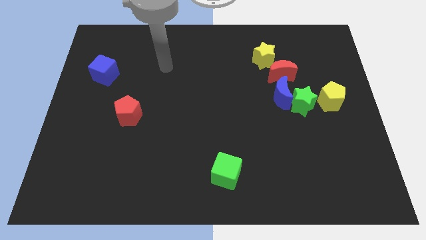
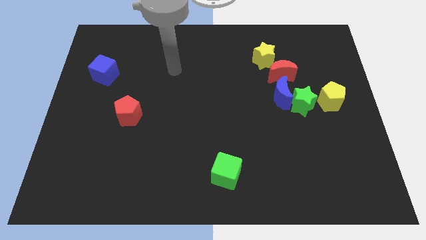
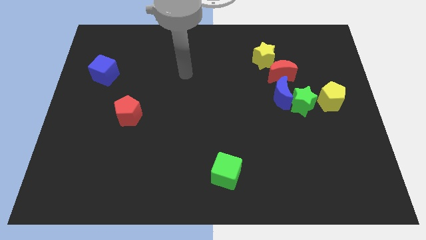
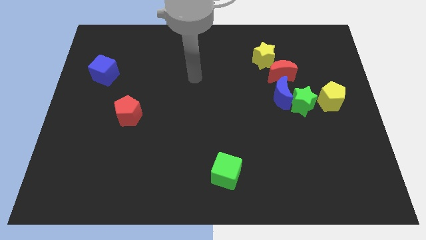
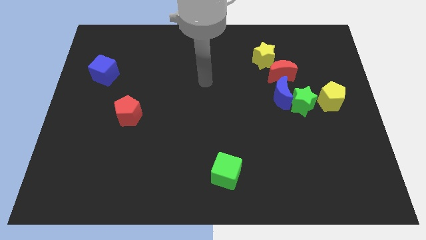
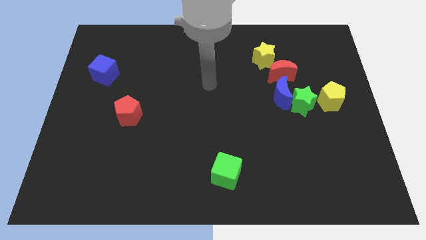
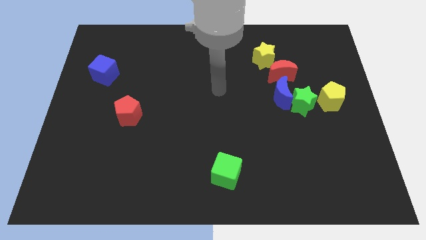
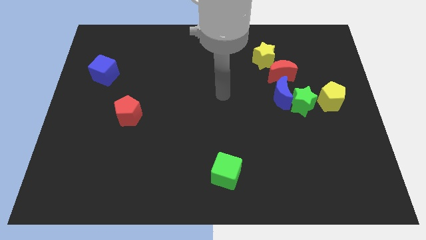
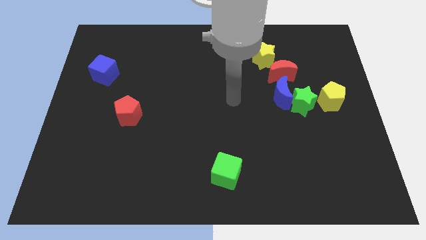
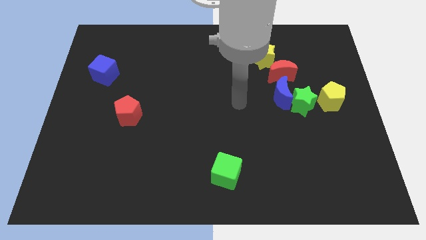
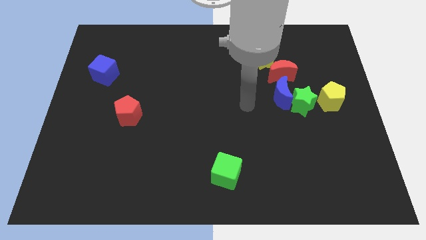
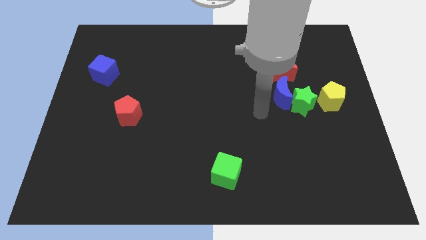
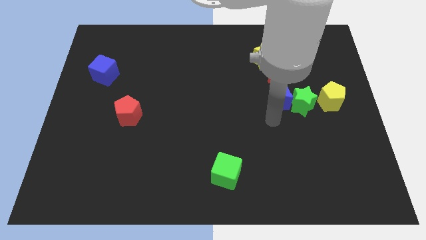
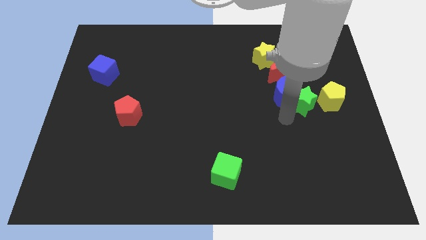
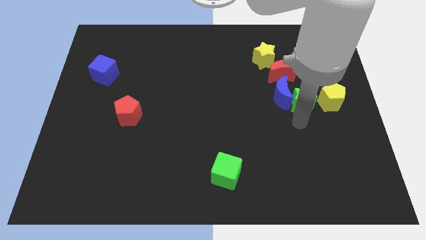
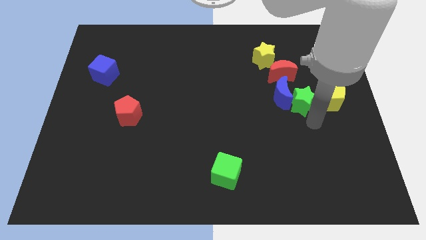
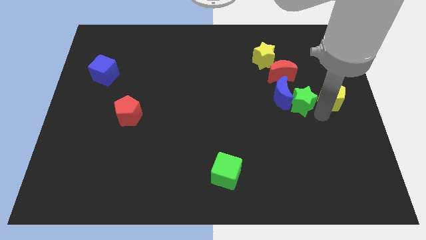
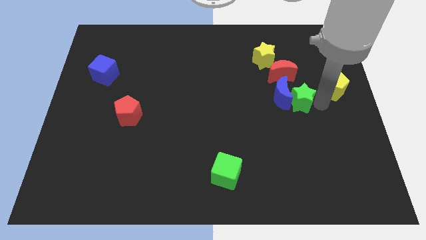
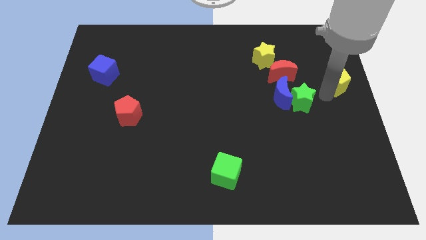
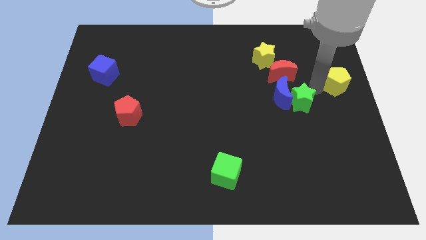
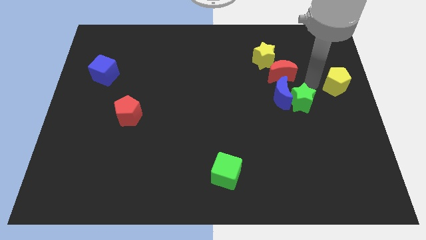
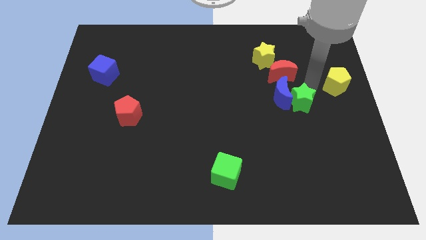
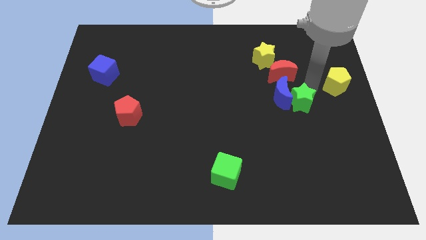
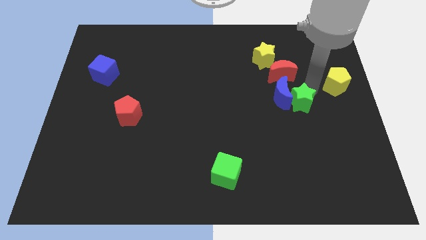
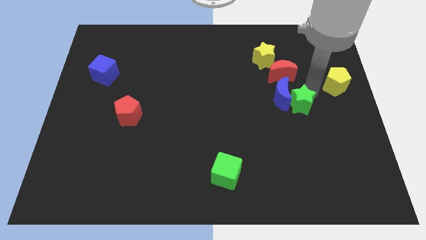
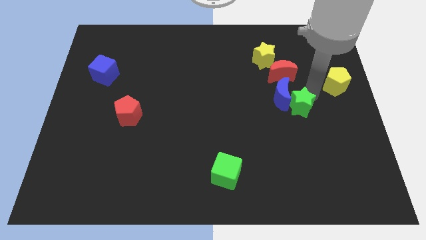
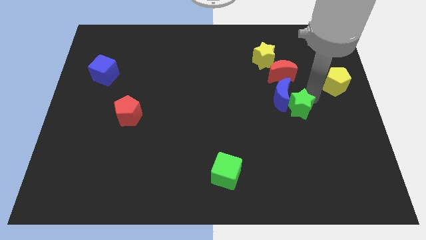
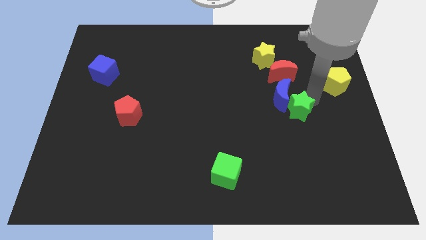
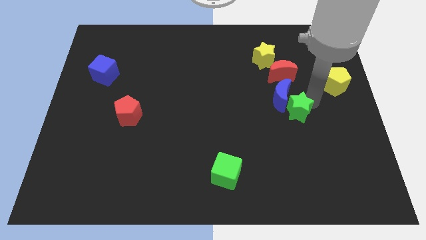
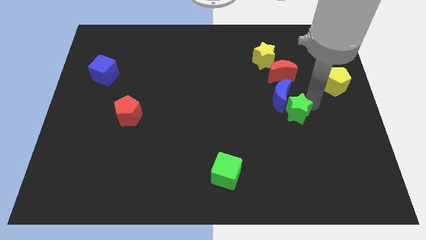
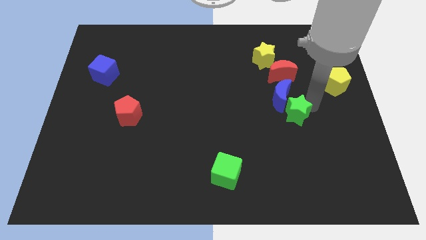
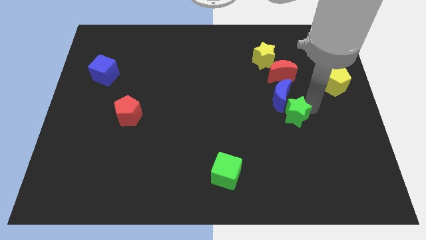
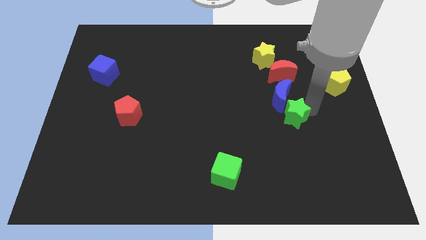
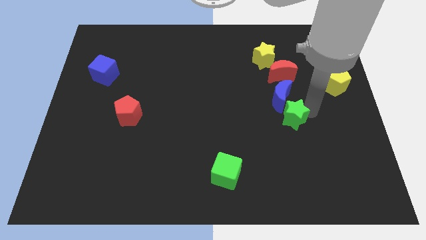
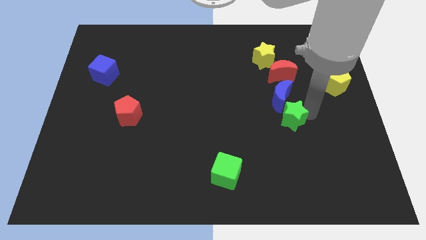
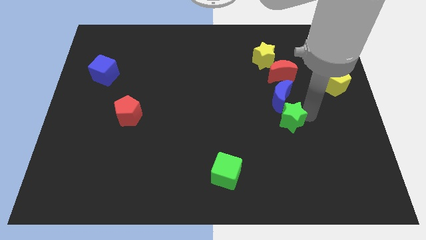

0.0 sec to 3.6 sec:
separate the green star from the blue moon and yellow pentagon

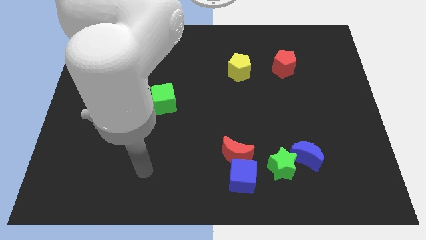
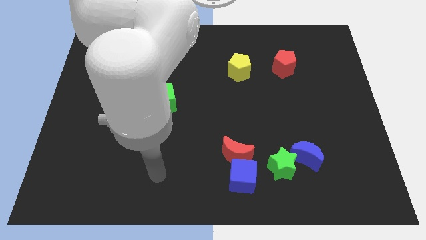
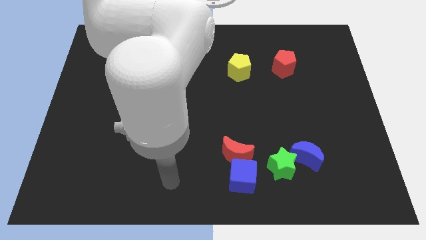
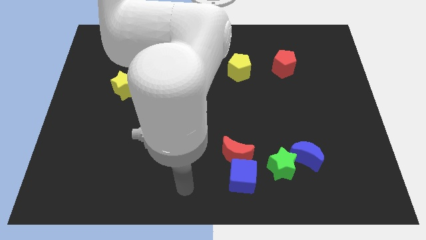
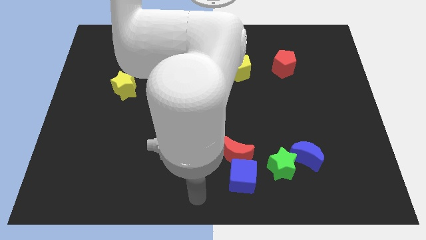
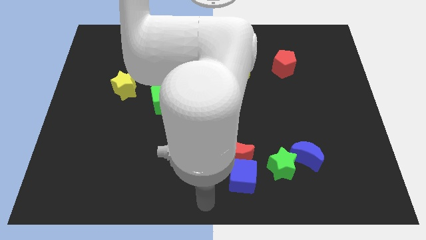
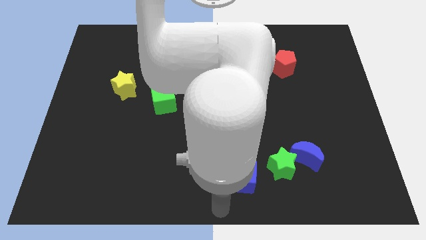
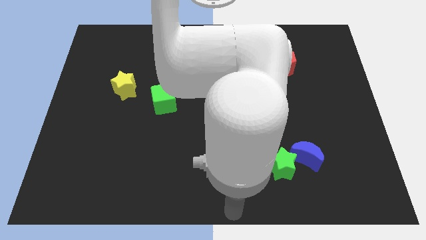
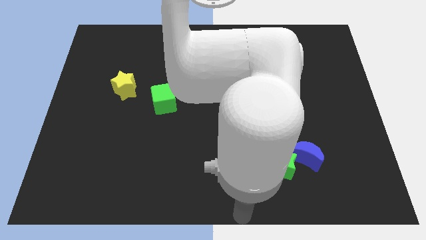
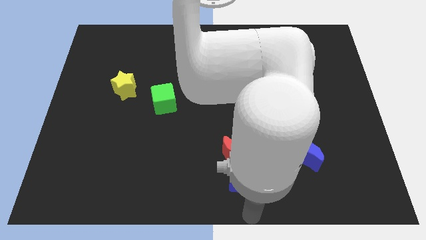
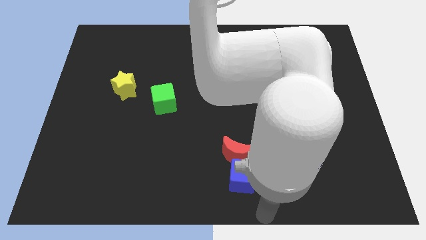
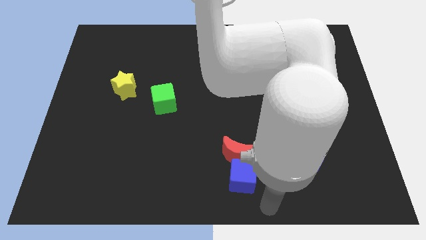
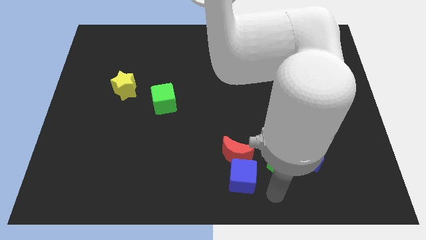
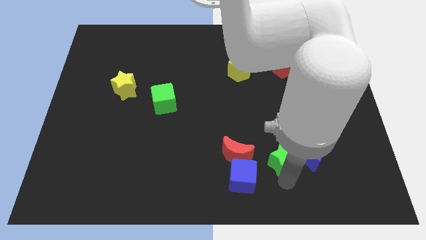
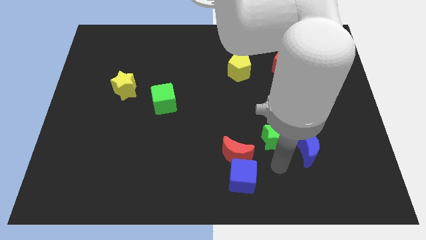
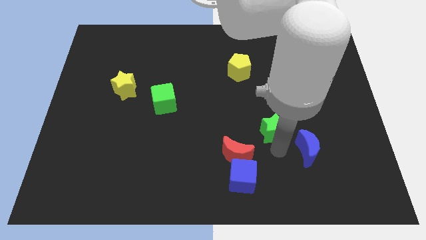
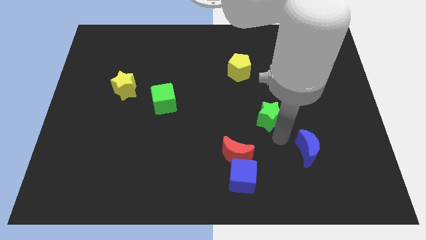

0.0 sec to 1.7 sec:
move the blue moon away from the green star

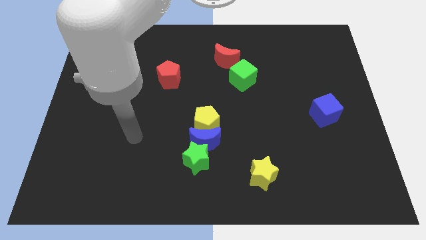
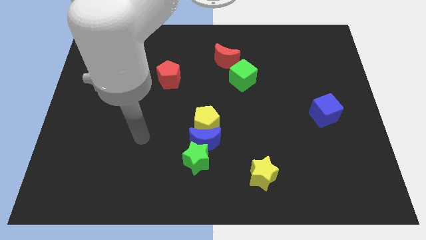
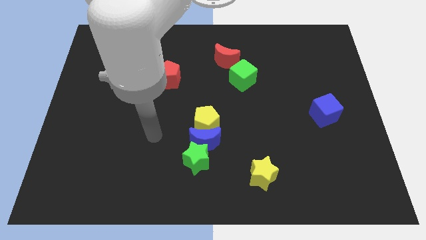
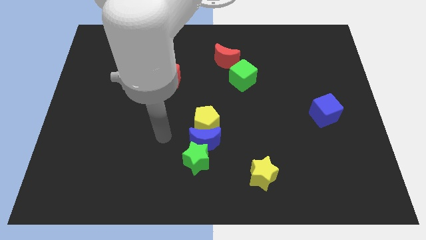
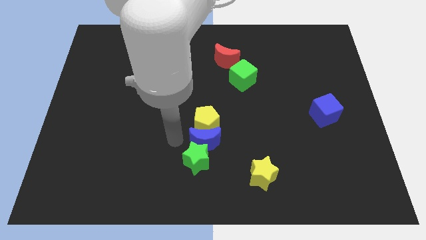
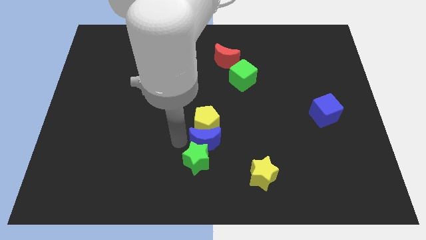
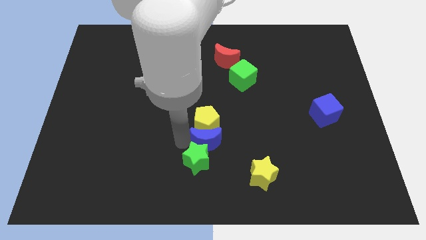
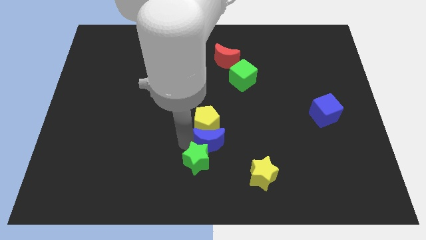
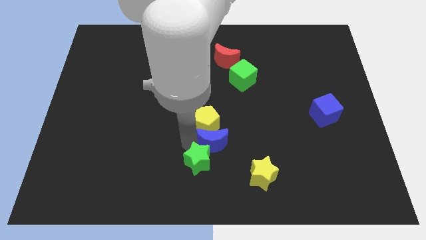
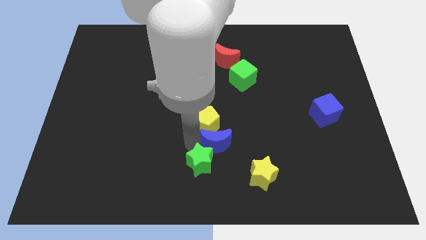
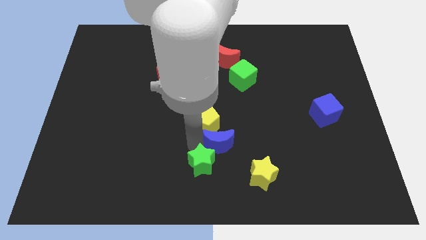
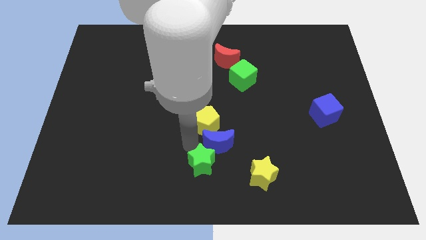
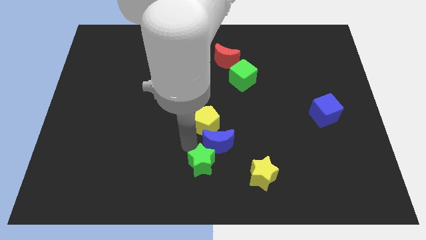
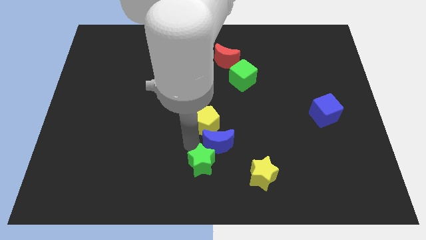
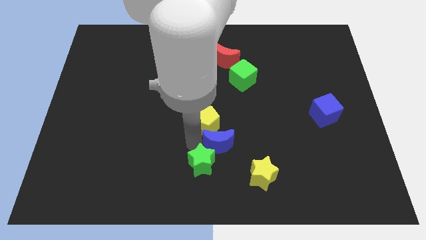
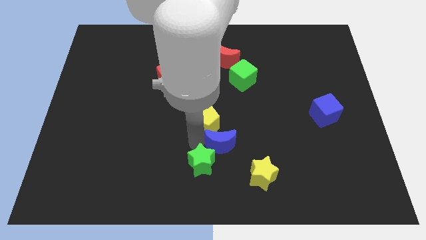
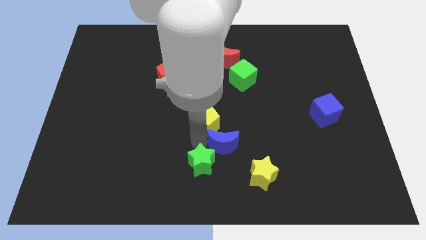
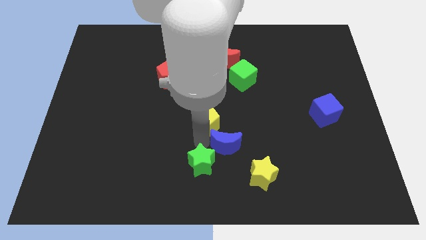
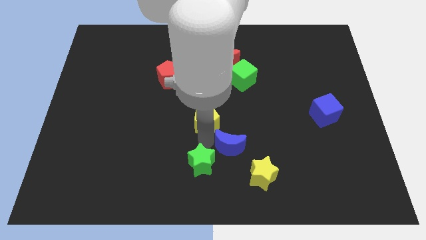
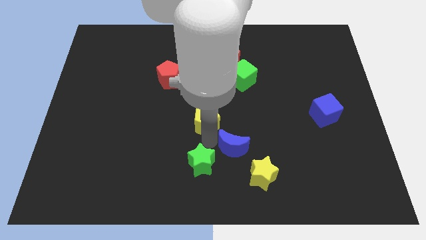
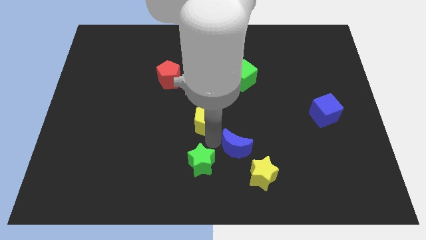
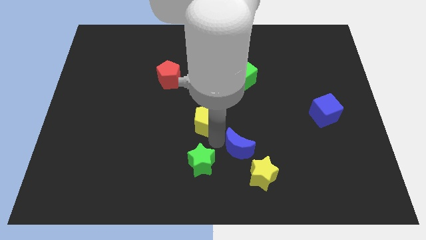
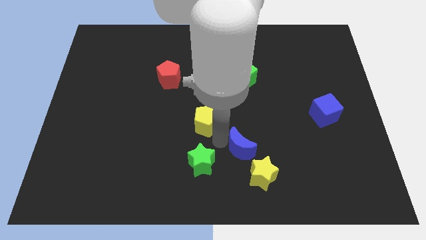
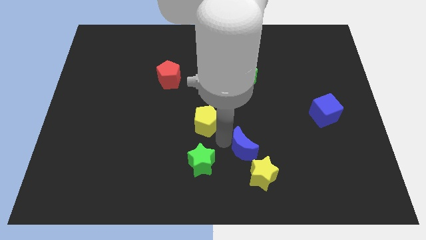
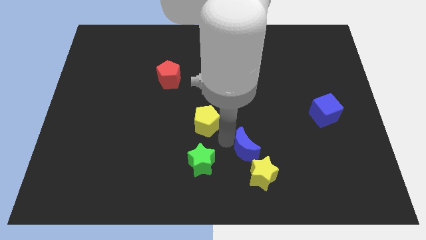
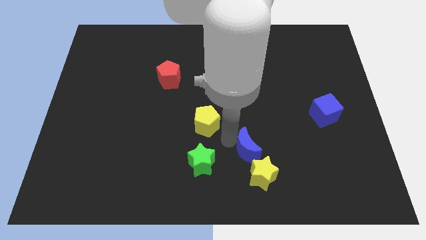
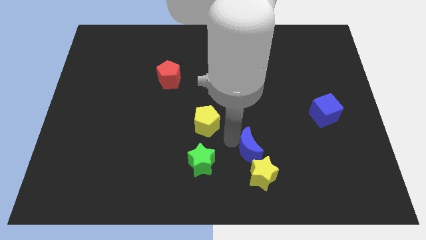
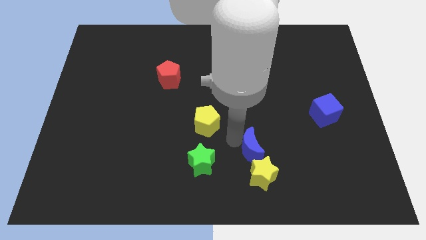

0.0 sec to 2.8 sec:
pull the blue moon apart from the yellow pentagon and green star

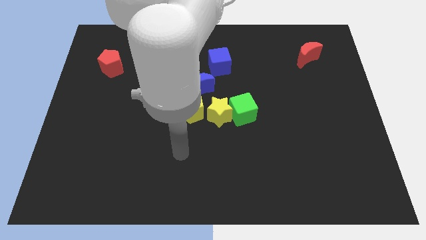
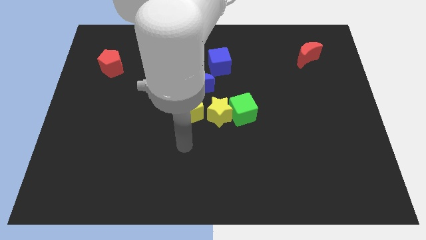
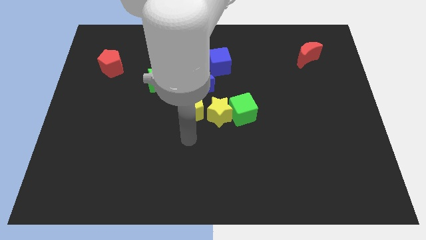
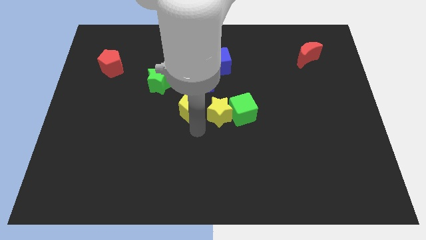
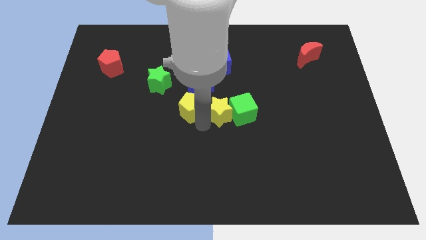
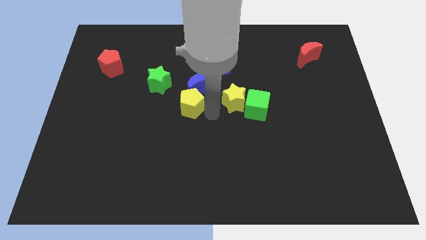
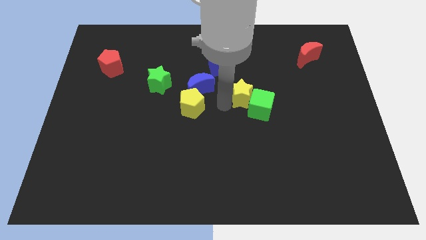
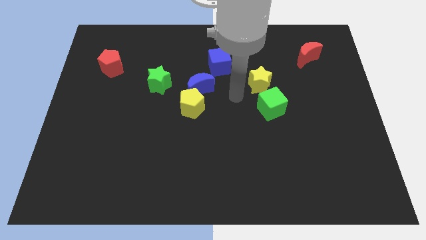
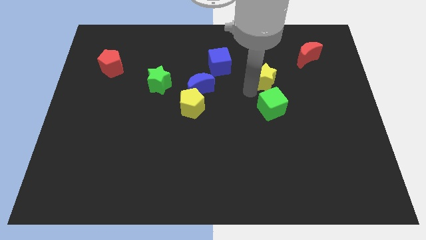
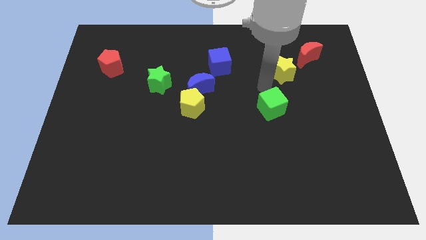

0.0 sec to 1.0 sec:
pull the green cube apart from the yellow star

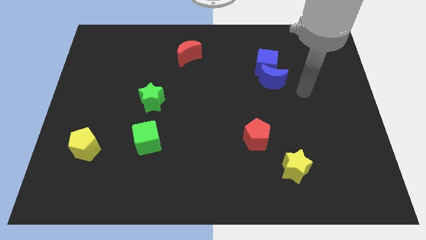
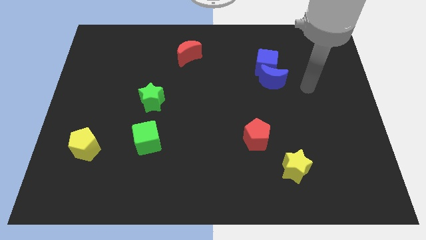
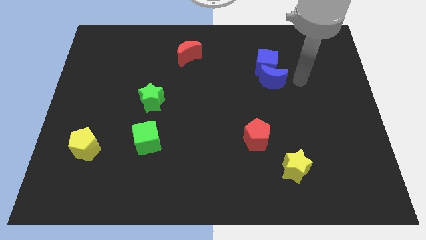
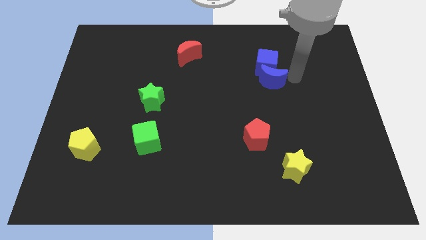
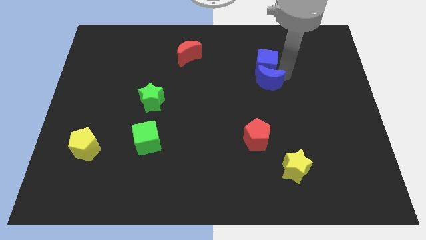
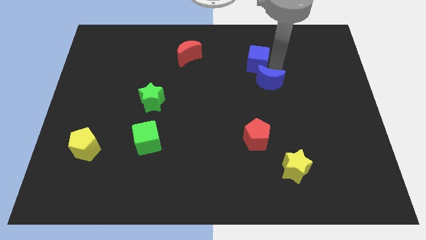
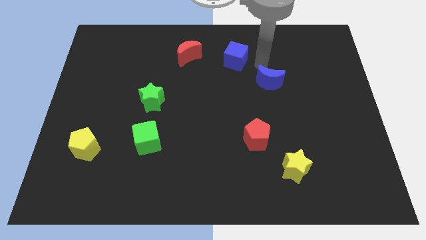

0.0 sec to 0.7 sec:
separate the blue moon from the blue cube
